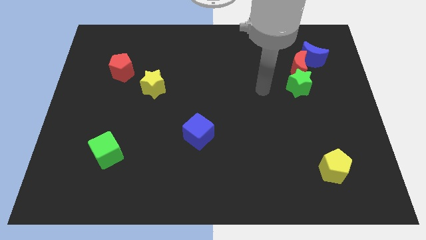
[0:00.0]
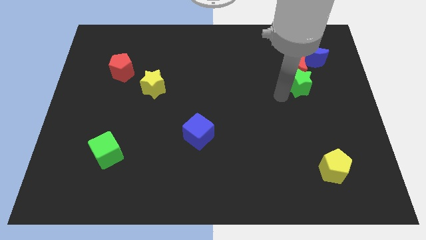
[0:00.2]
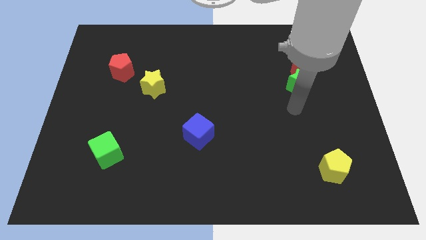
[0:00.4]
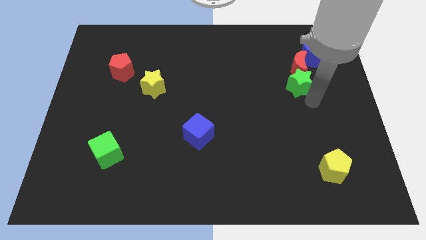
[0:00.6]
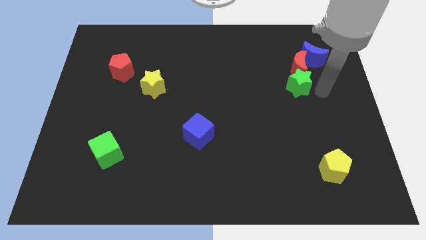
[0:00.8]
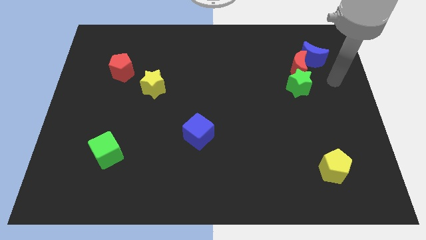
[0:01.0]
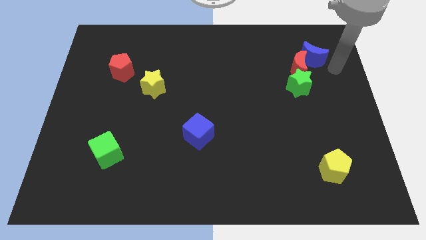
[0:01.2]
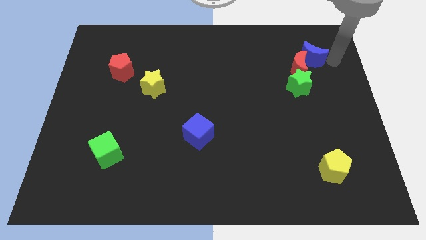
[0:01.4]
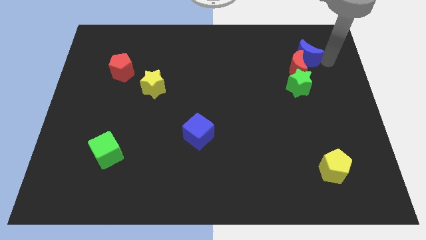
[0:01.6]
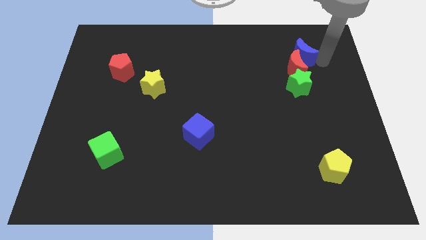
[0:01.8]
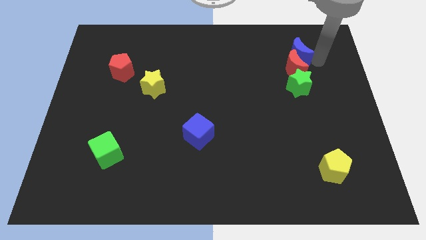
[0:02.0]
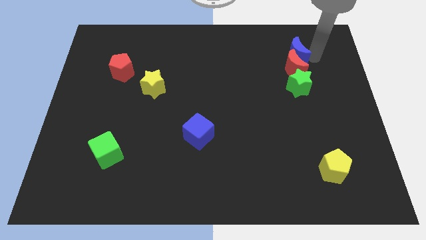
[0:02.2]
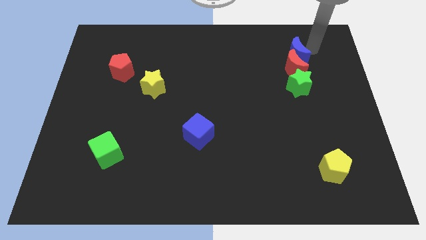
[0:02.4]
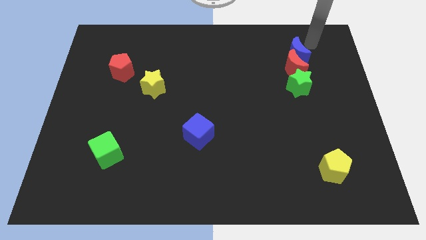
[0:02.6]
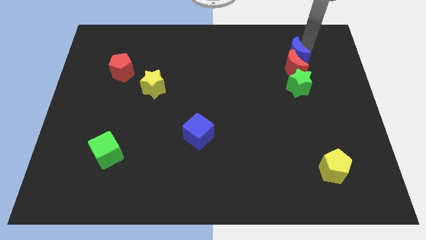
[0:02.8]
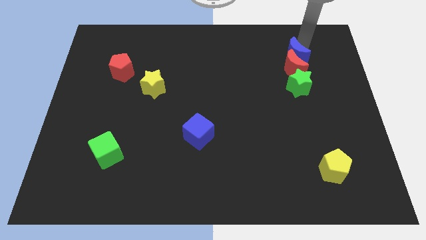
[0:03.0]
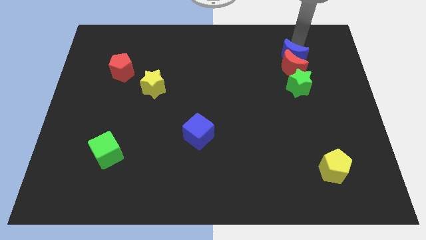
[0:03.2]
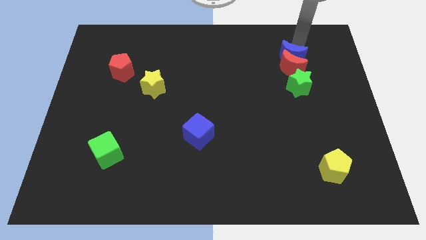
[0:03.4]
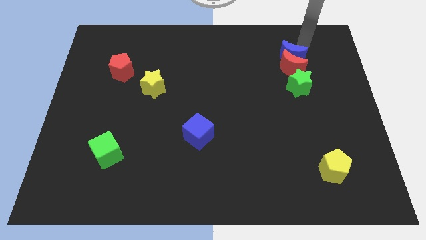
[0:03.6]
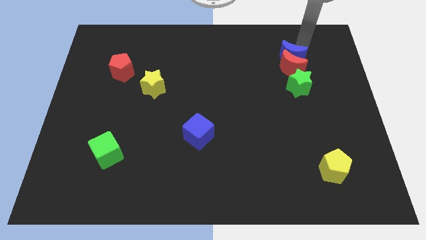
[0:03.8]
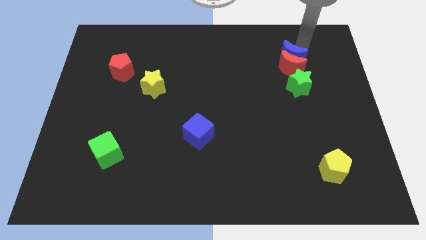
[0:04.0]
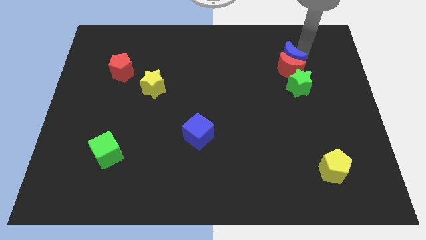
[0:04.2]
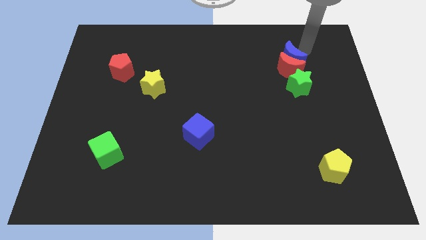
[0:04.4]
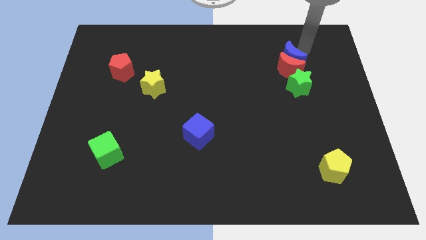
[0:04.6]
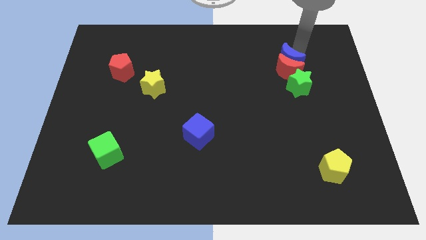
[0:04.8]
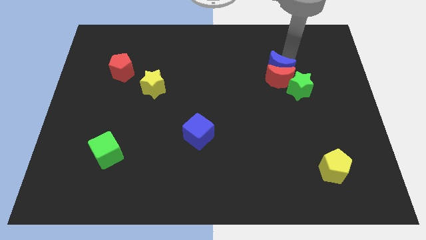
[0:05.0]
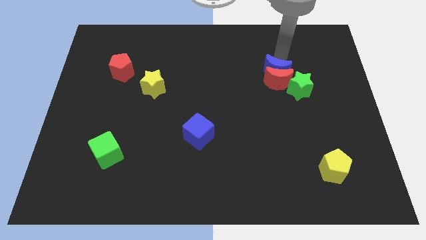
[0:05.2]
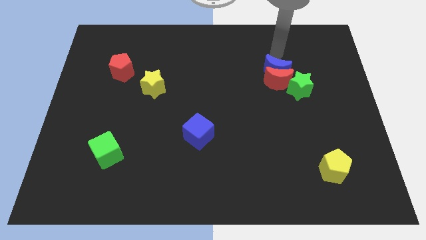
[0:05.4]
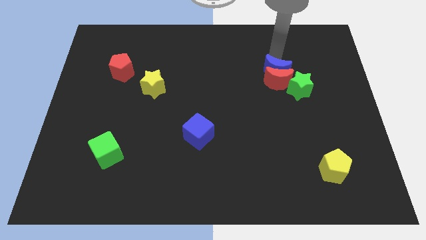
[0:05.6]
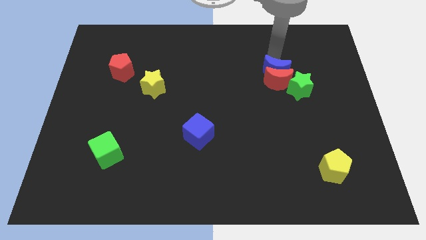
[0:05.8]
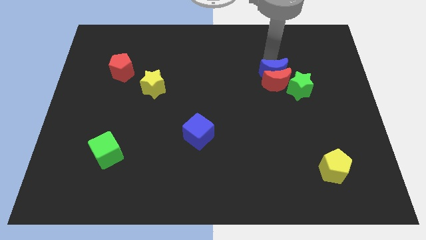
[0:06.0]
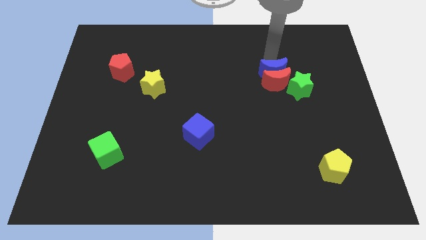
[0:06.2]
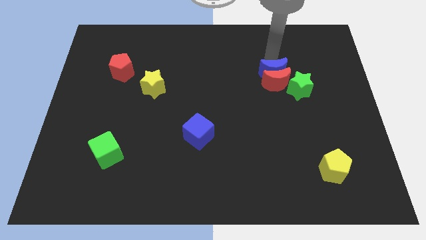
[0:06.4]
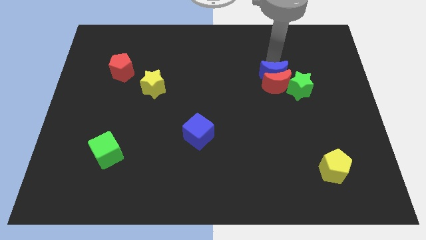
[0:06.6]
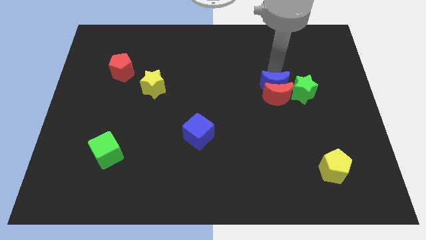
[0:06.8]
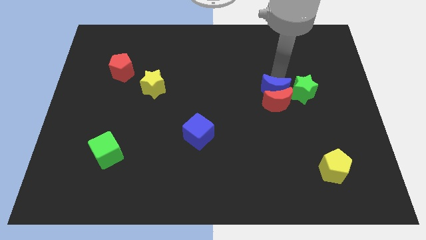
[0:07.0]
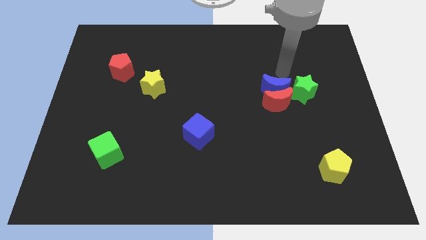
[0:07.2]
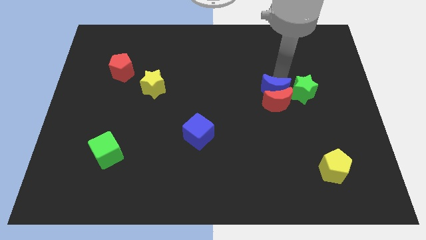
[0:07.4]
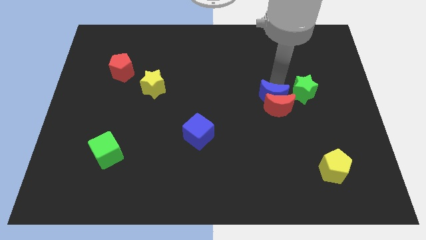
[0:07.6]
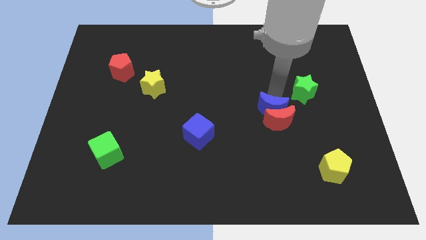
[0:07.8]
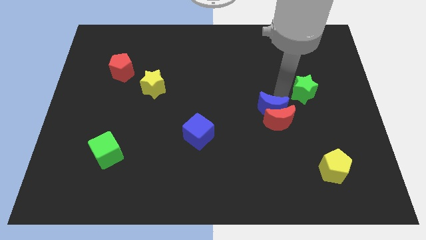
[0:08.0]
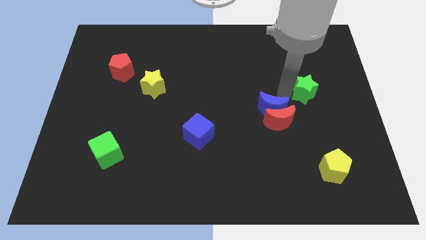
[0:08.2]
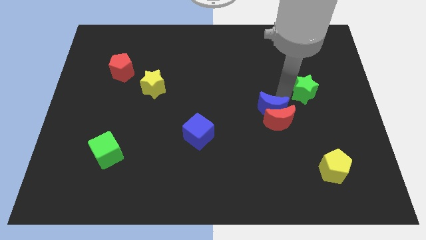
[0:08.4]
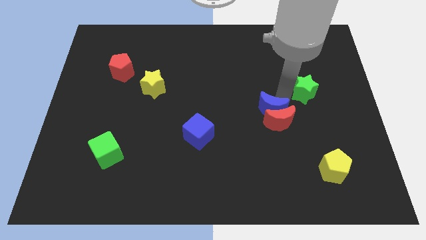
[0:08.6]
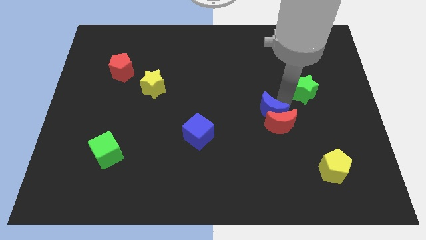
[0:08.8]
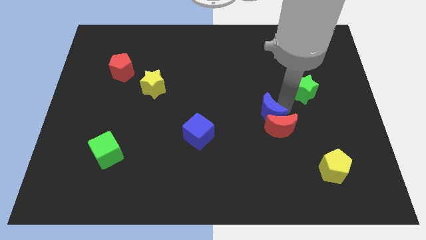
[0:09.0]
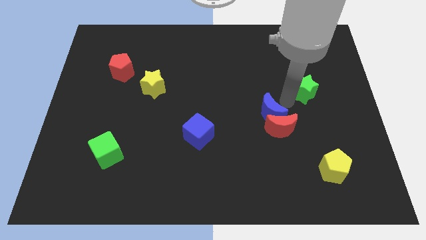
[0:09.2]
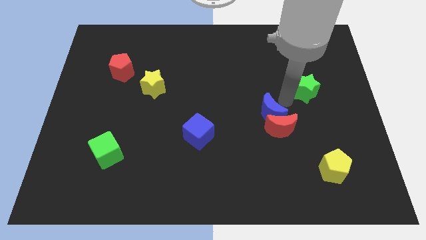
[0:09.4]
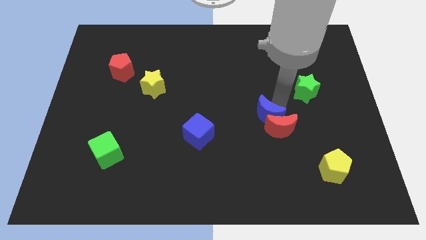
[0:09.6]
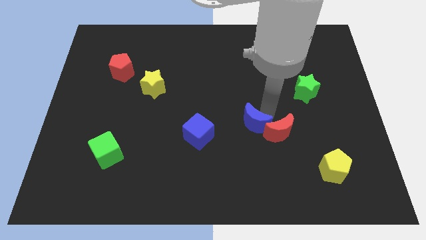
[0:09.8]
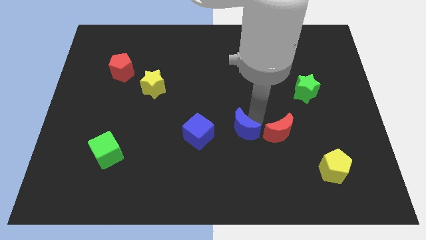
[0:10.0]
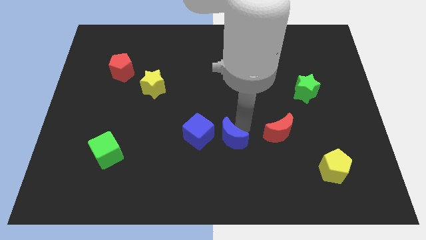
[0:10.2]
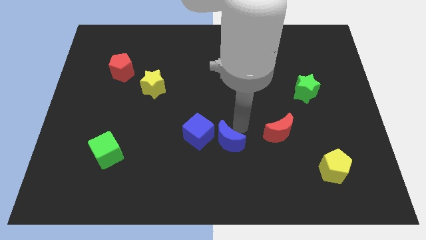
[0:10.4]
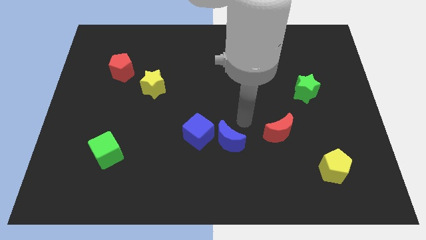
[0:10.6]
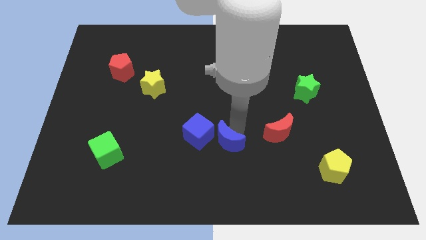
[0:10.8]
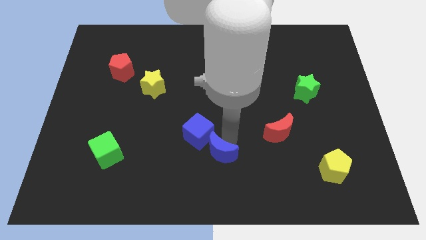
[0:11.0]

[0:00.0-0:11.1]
put the blue moon to the bottom of the blue cube

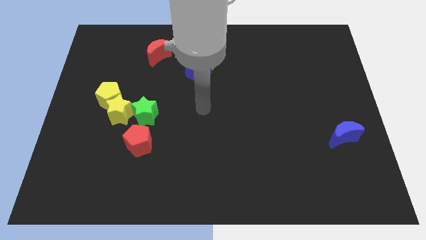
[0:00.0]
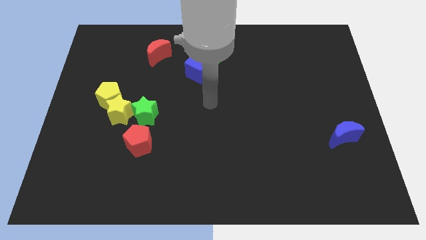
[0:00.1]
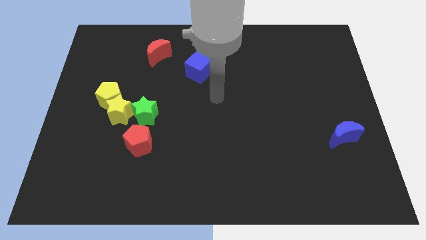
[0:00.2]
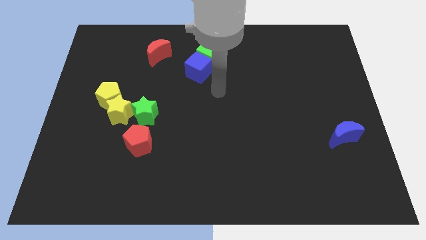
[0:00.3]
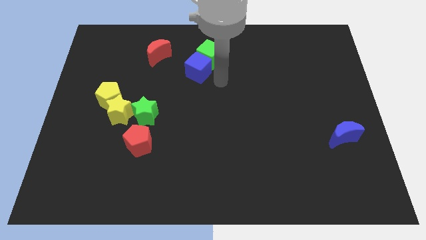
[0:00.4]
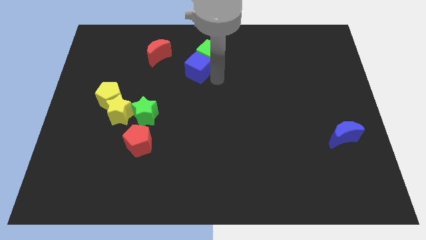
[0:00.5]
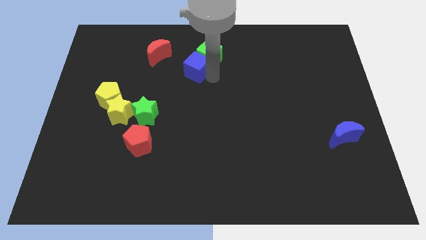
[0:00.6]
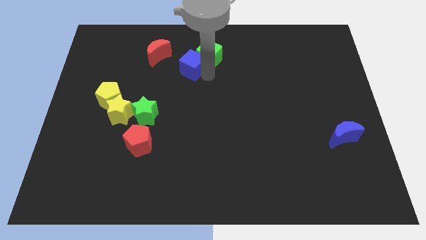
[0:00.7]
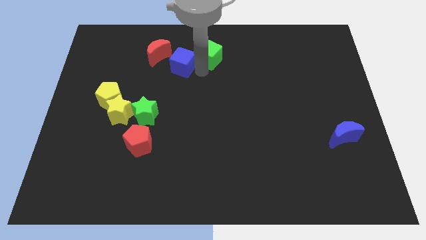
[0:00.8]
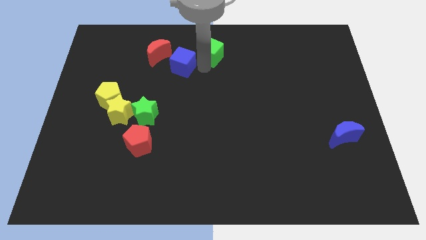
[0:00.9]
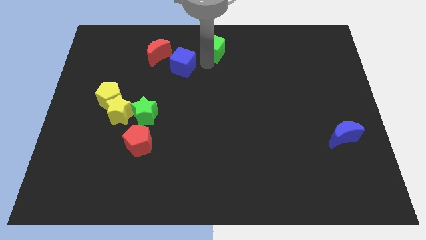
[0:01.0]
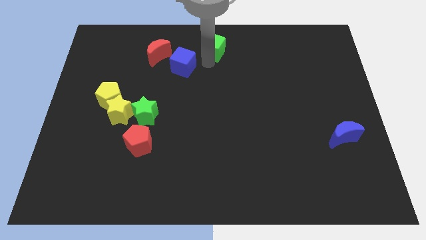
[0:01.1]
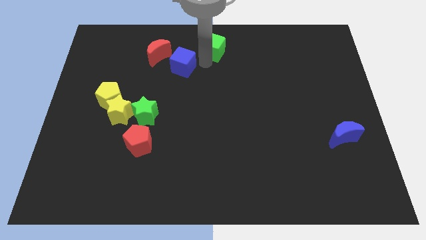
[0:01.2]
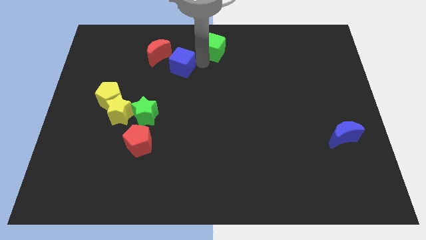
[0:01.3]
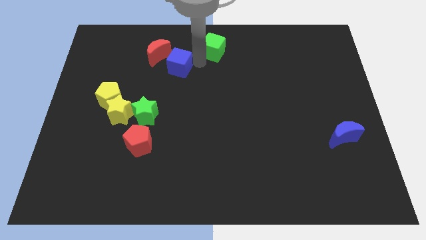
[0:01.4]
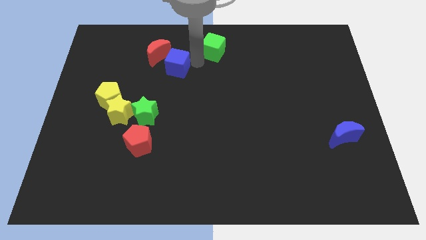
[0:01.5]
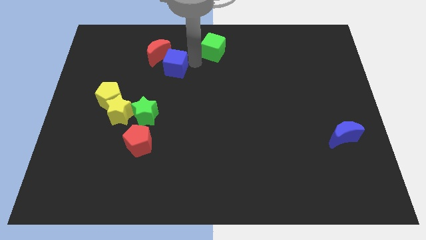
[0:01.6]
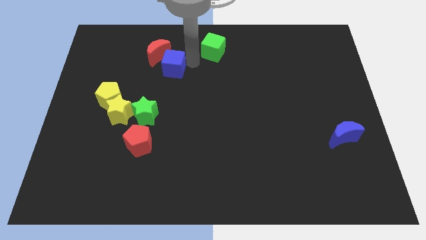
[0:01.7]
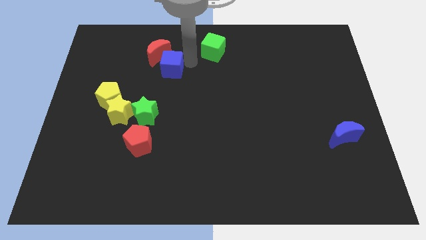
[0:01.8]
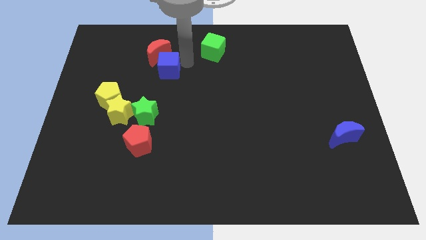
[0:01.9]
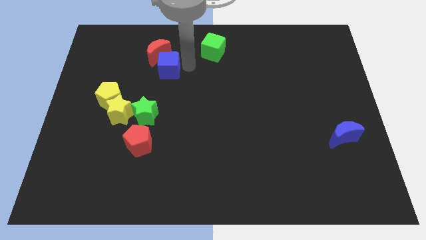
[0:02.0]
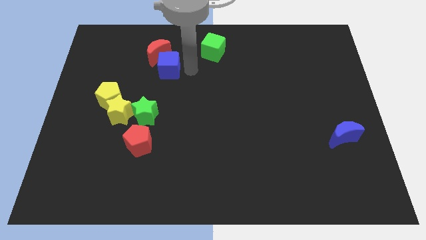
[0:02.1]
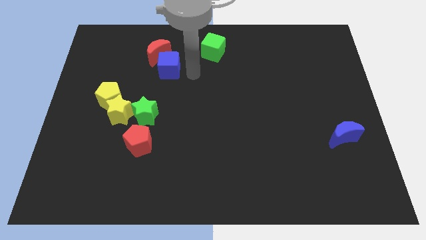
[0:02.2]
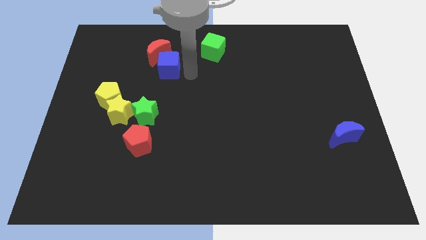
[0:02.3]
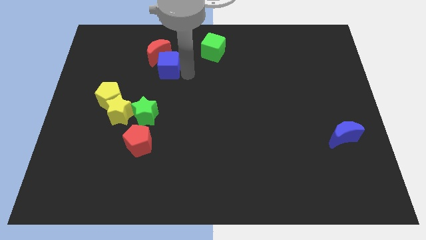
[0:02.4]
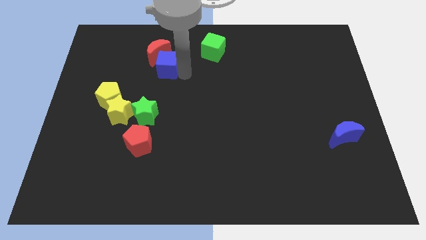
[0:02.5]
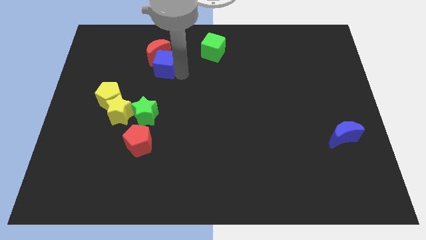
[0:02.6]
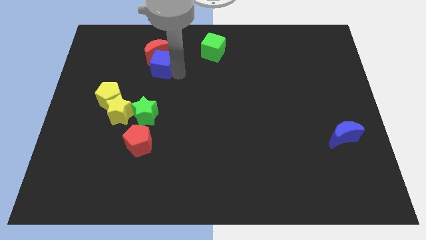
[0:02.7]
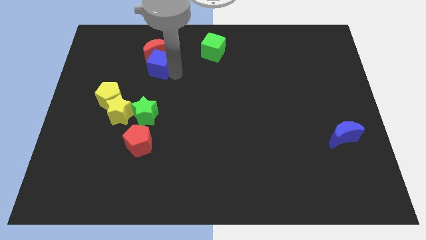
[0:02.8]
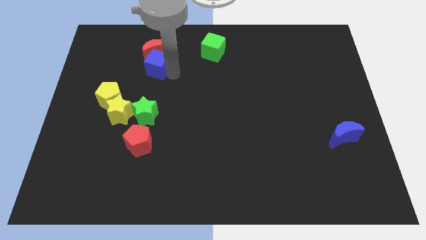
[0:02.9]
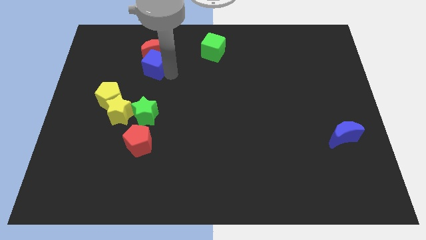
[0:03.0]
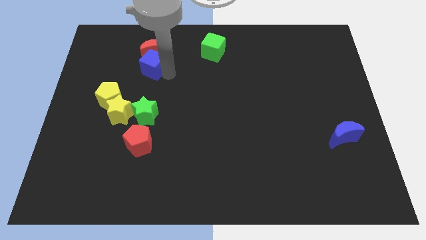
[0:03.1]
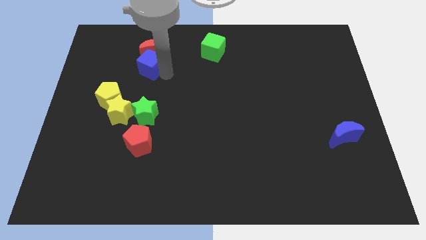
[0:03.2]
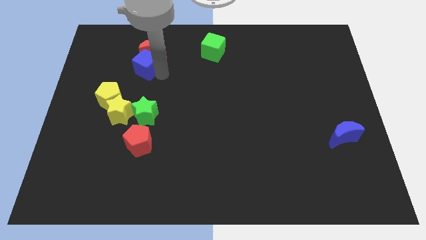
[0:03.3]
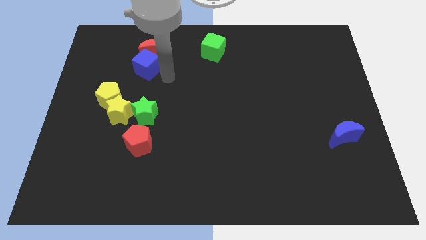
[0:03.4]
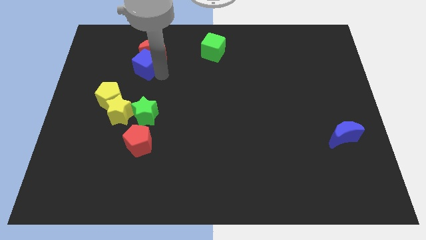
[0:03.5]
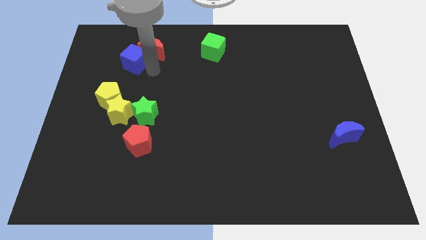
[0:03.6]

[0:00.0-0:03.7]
move the blue cube left of the red moon
